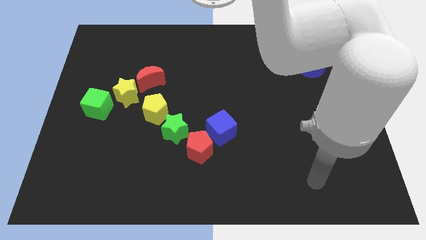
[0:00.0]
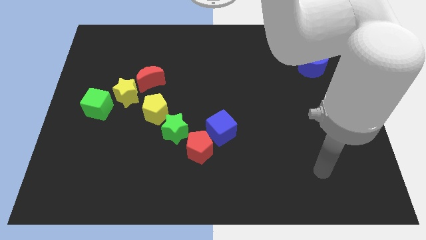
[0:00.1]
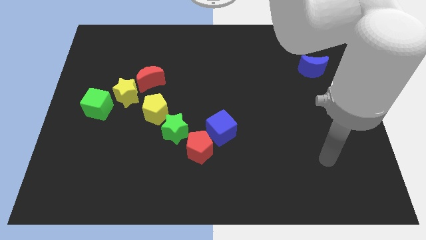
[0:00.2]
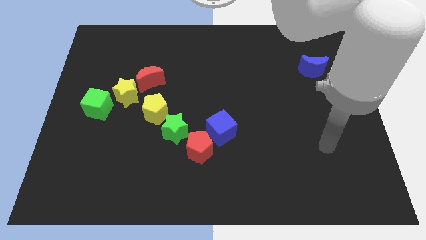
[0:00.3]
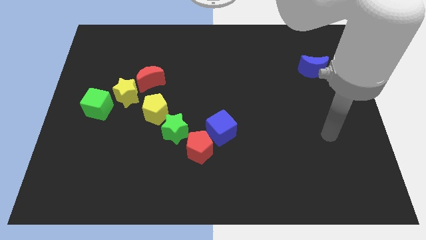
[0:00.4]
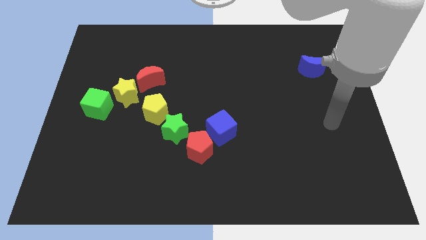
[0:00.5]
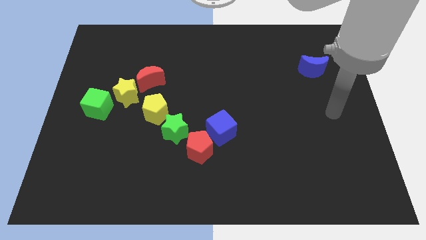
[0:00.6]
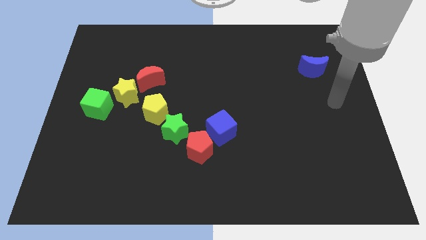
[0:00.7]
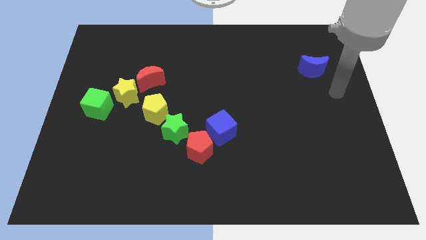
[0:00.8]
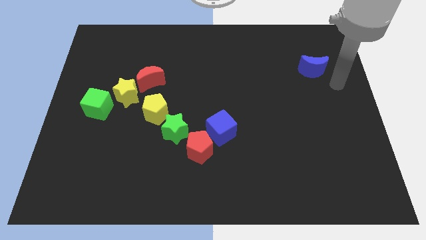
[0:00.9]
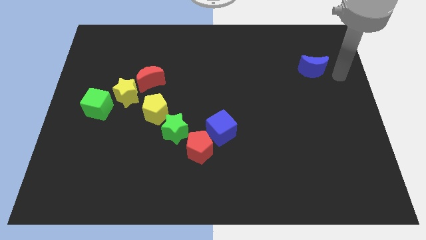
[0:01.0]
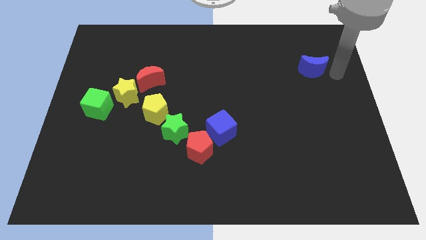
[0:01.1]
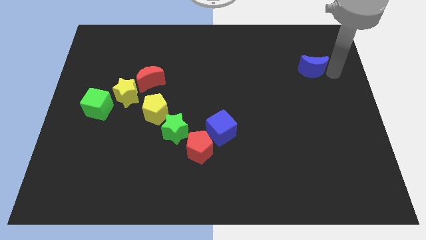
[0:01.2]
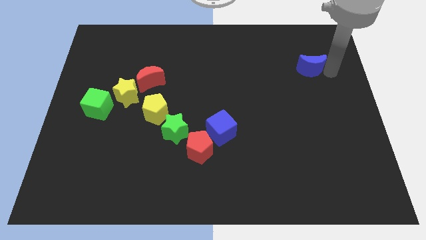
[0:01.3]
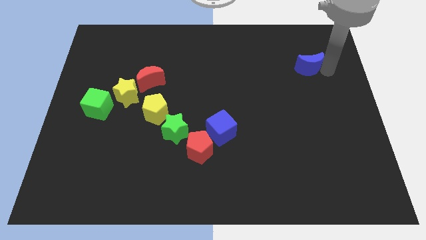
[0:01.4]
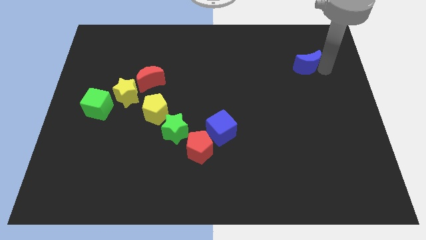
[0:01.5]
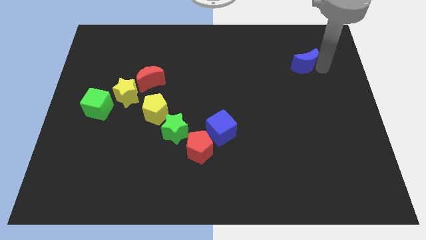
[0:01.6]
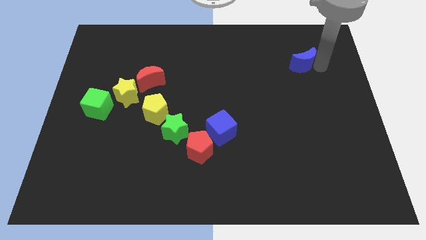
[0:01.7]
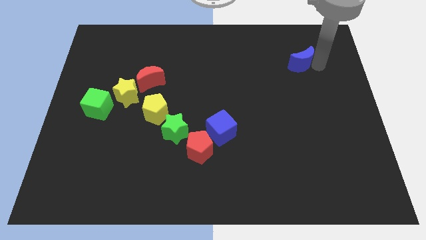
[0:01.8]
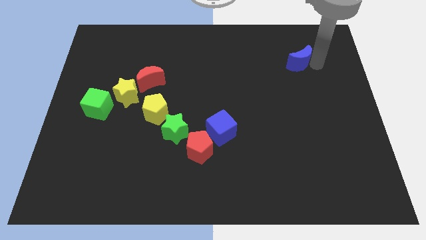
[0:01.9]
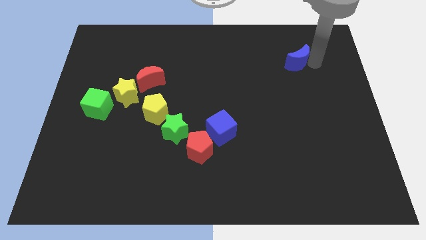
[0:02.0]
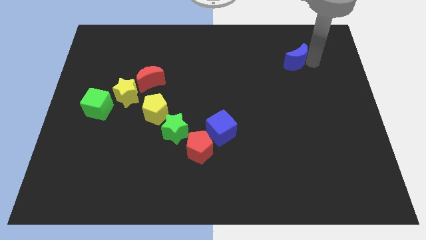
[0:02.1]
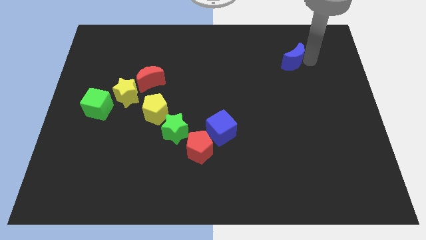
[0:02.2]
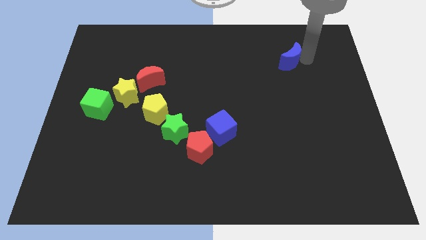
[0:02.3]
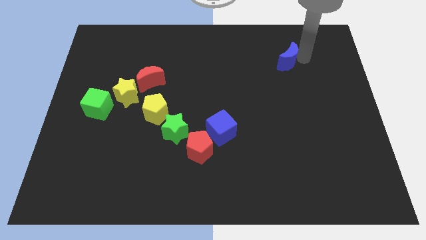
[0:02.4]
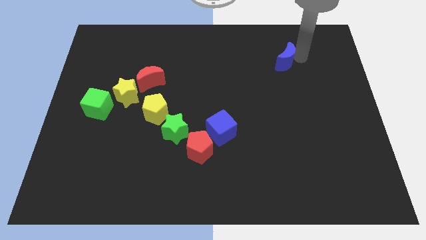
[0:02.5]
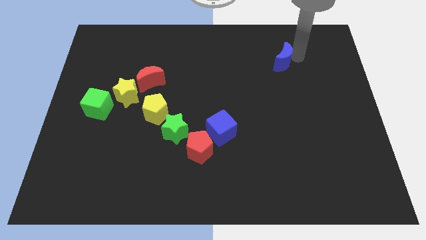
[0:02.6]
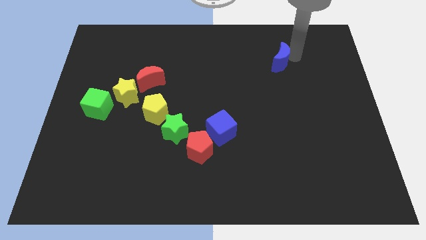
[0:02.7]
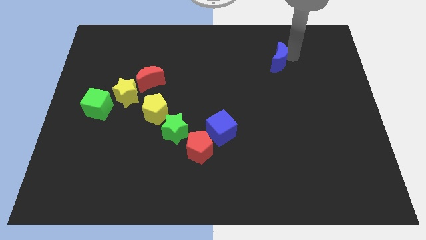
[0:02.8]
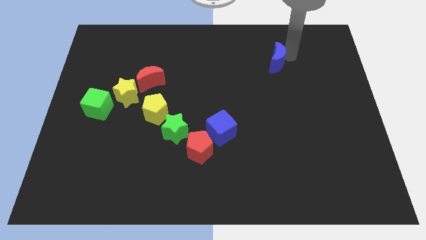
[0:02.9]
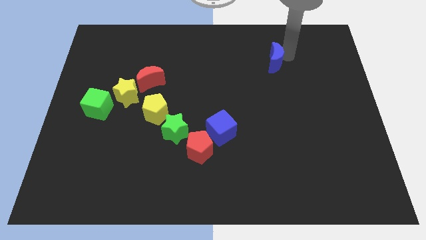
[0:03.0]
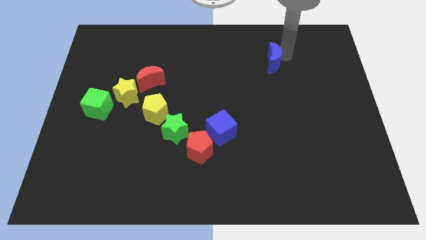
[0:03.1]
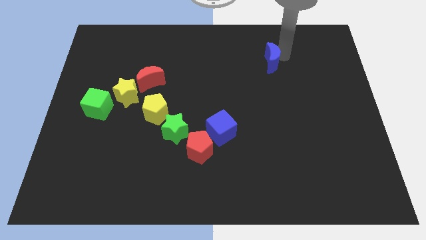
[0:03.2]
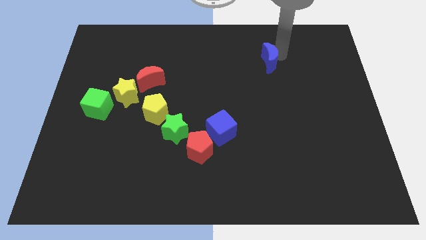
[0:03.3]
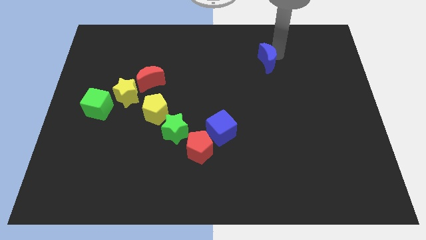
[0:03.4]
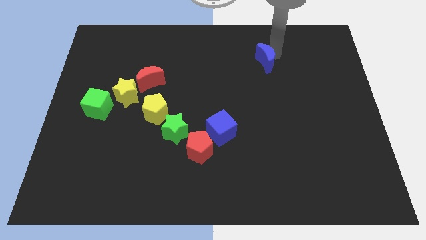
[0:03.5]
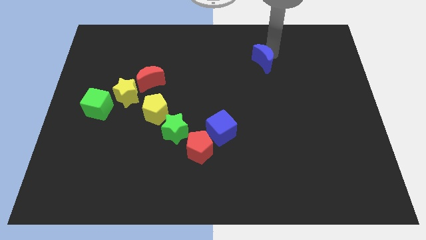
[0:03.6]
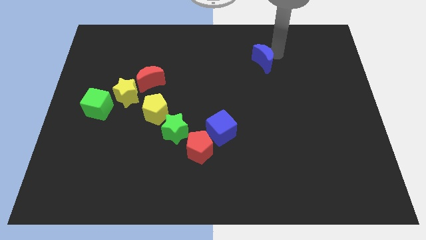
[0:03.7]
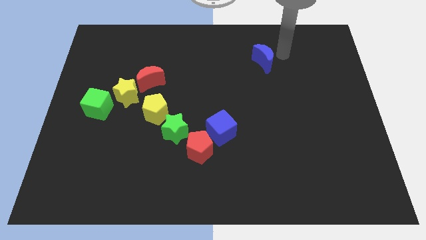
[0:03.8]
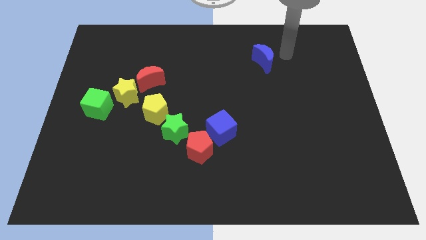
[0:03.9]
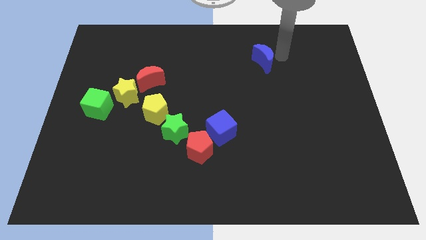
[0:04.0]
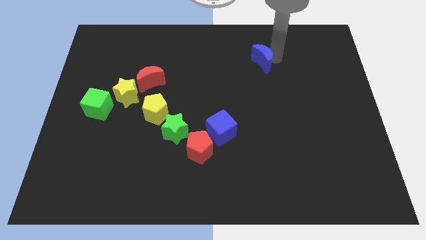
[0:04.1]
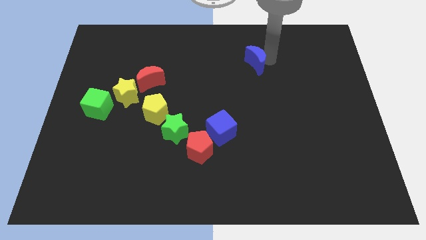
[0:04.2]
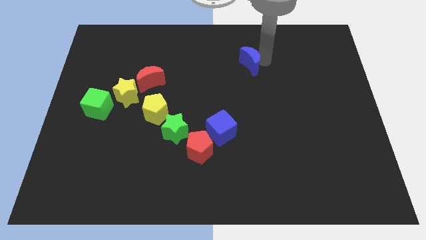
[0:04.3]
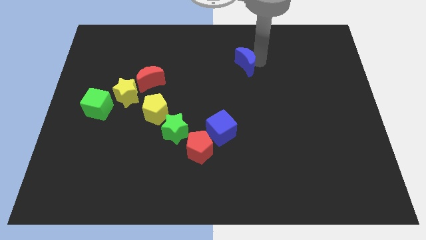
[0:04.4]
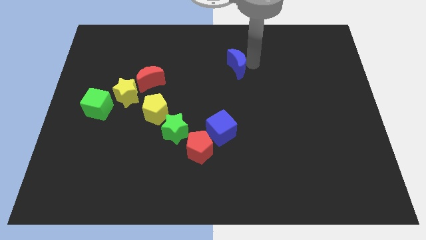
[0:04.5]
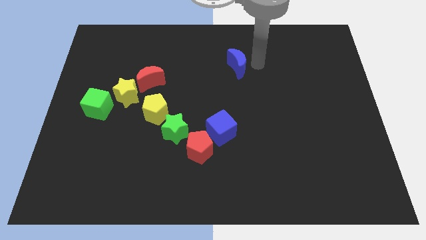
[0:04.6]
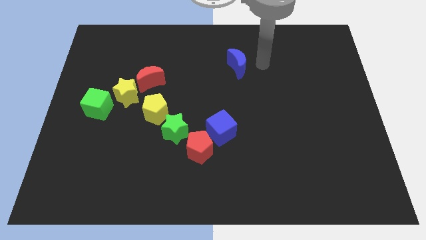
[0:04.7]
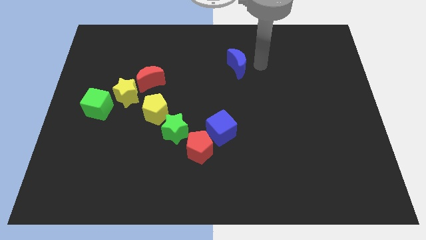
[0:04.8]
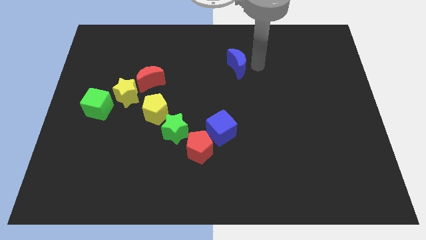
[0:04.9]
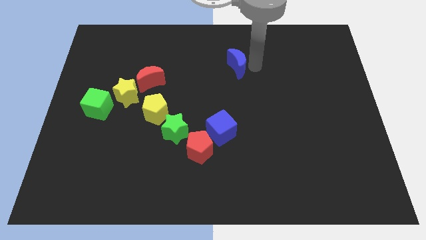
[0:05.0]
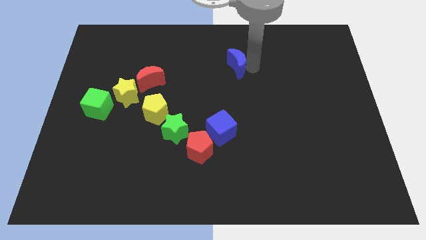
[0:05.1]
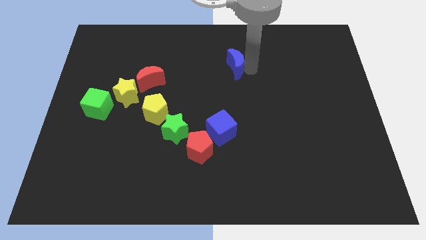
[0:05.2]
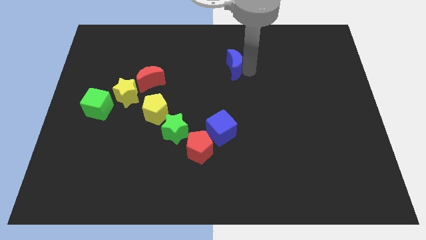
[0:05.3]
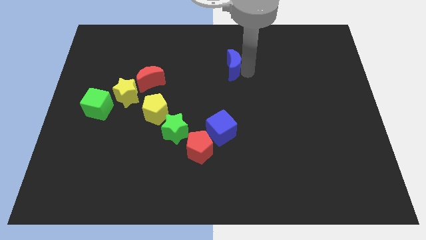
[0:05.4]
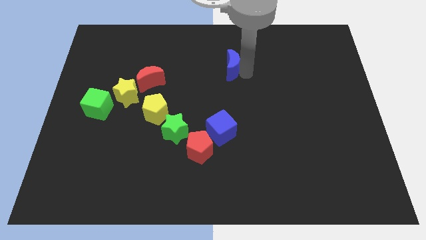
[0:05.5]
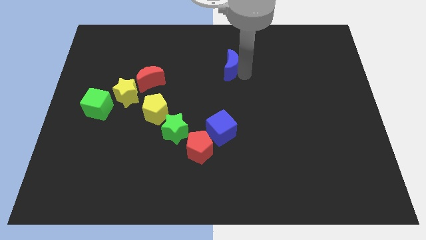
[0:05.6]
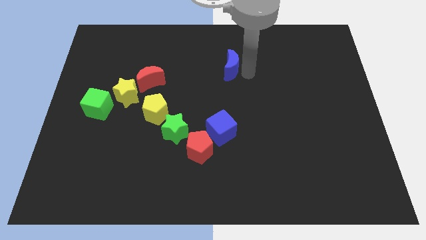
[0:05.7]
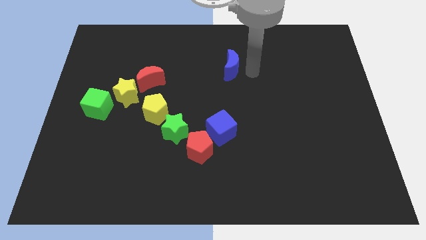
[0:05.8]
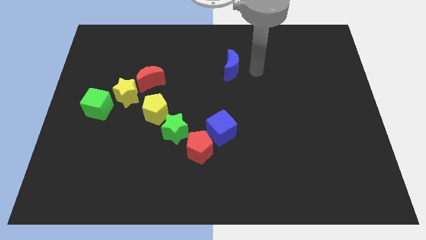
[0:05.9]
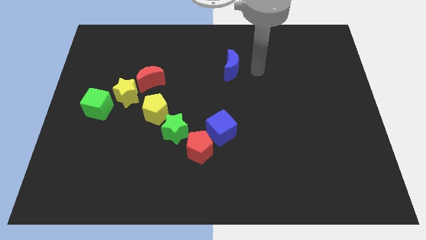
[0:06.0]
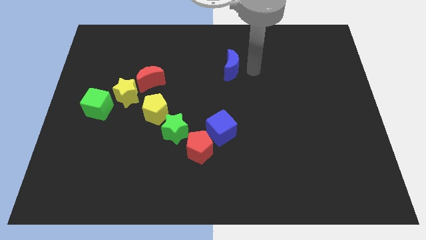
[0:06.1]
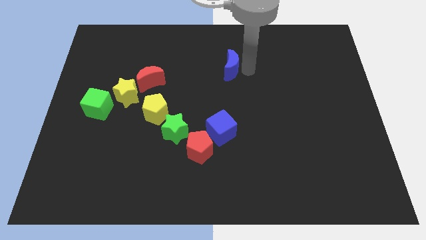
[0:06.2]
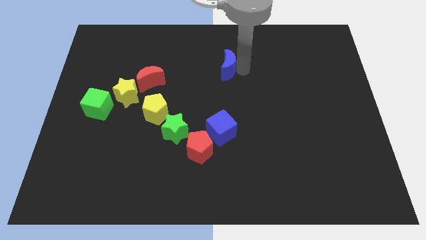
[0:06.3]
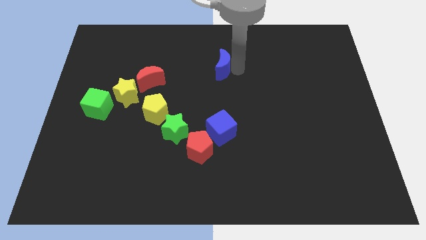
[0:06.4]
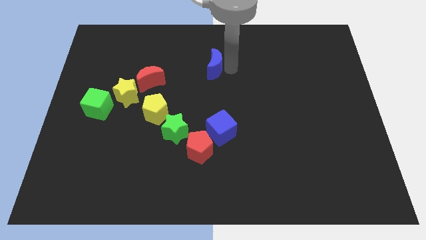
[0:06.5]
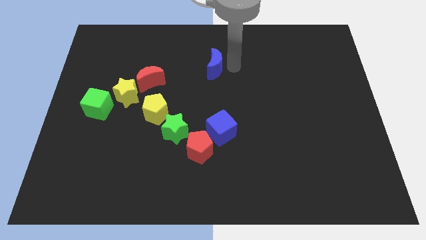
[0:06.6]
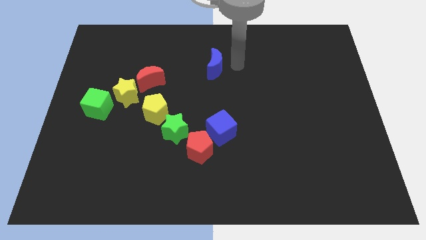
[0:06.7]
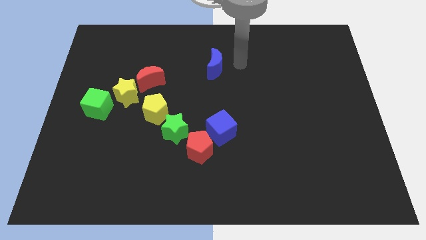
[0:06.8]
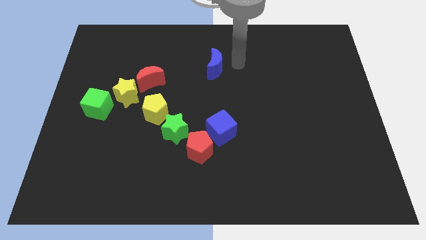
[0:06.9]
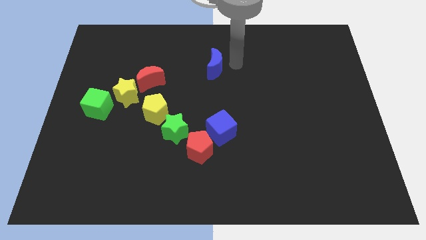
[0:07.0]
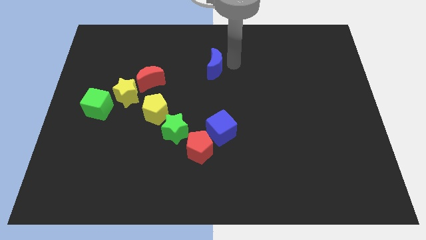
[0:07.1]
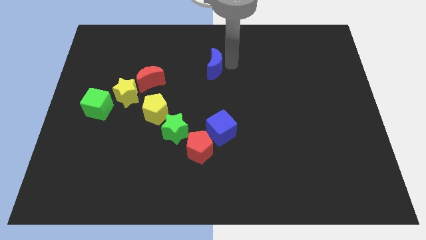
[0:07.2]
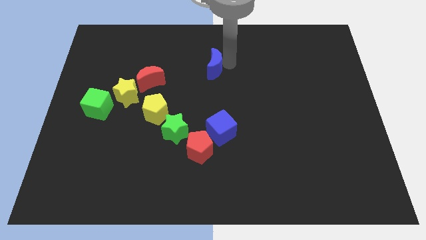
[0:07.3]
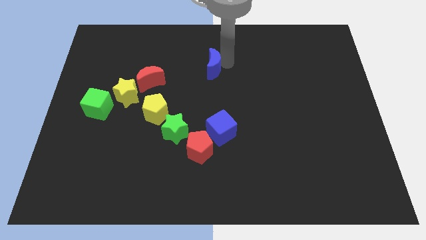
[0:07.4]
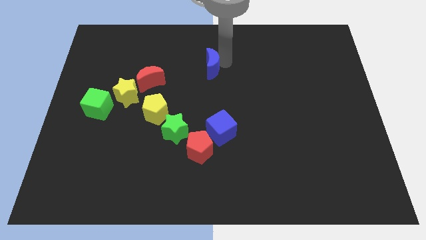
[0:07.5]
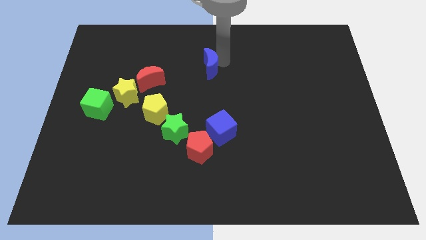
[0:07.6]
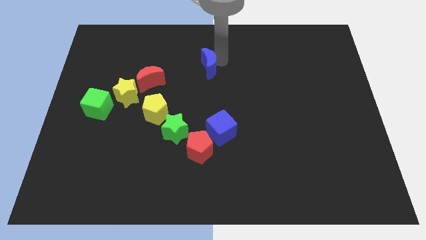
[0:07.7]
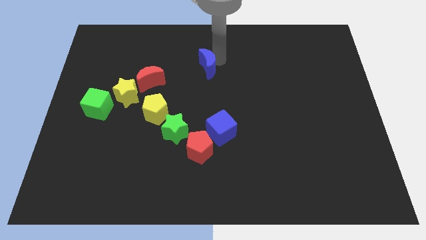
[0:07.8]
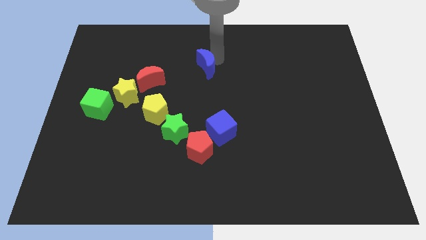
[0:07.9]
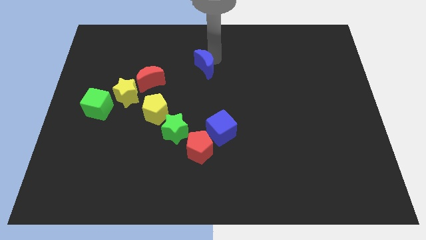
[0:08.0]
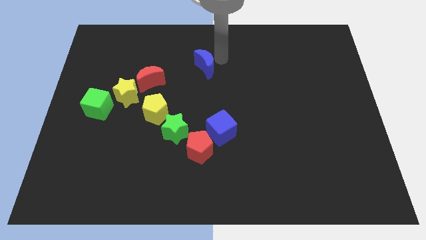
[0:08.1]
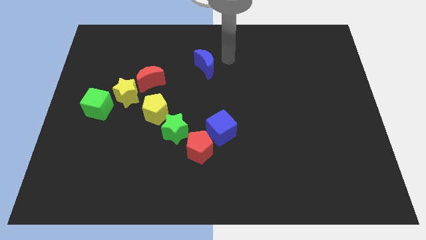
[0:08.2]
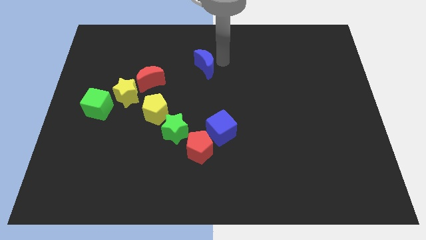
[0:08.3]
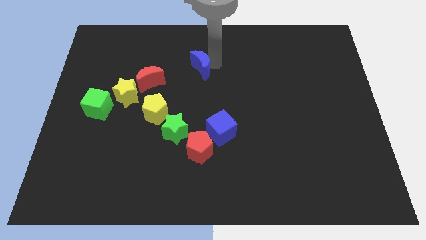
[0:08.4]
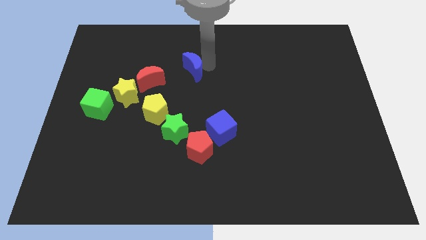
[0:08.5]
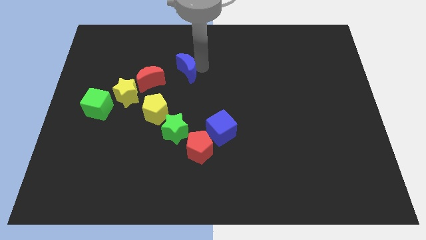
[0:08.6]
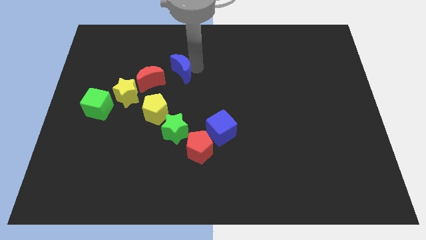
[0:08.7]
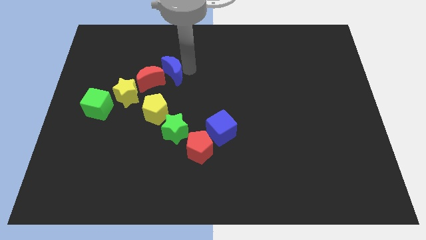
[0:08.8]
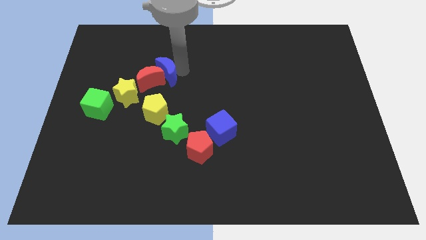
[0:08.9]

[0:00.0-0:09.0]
push the blue moon to the red moon
